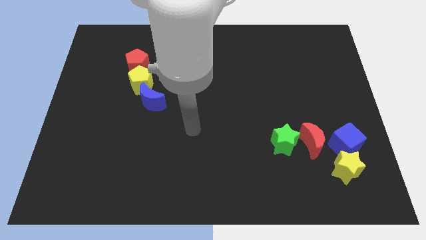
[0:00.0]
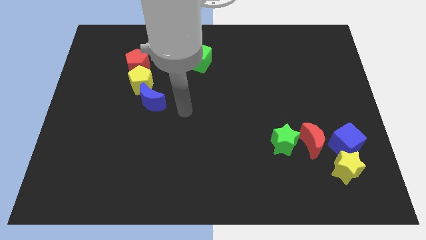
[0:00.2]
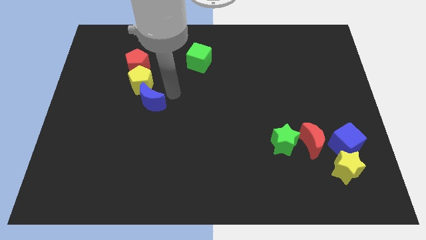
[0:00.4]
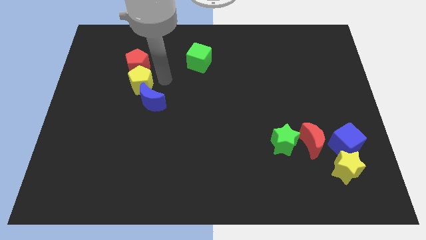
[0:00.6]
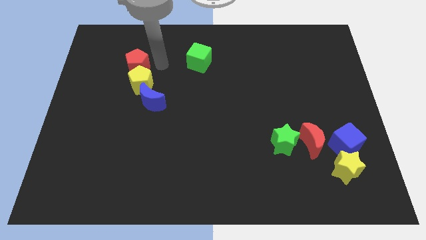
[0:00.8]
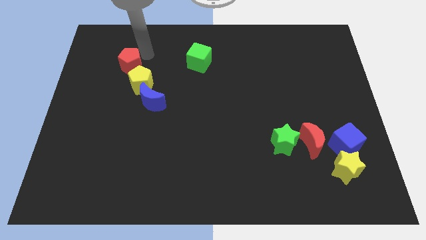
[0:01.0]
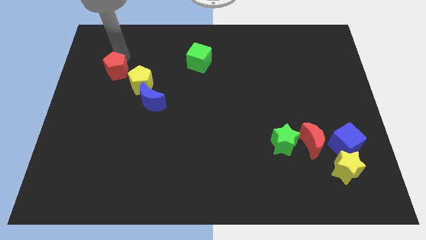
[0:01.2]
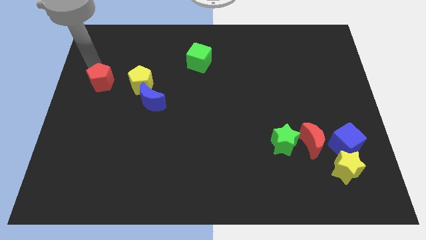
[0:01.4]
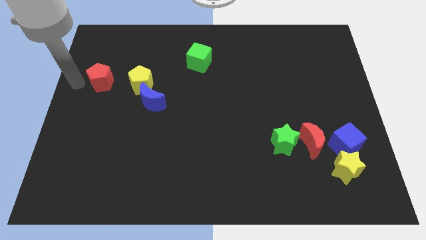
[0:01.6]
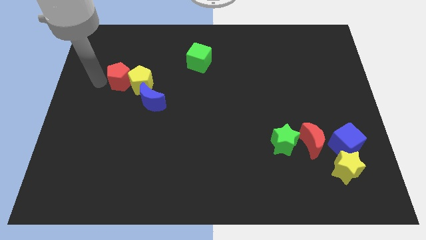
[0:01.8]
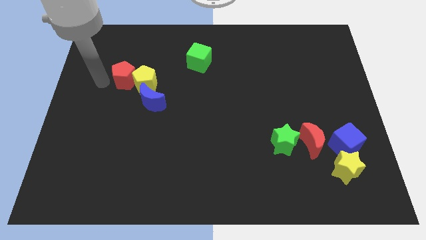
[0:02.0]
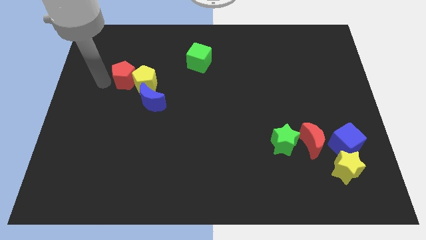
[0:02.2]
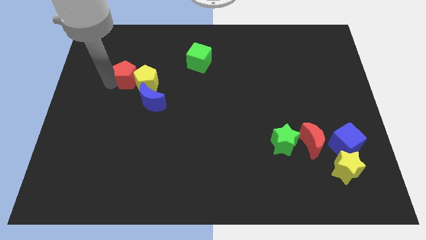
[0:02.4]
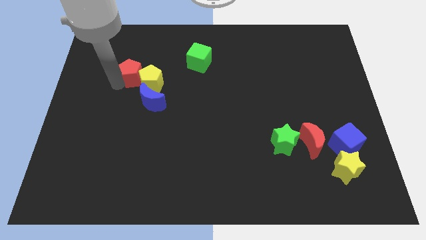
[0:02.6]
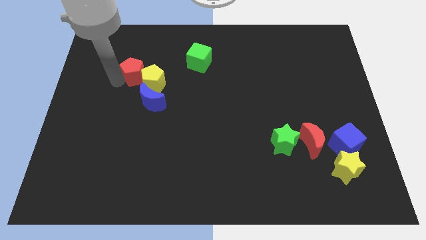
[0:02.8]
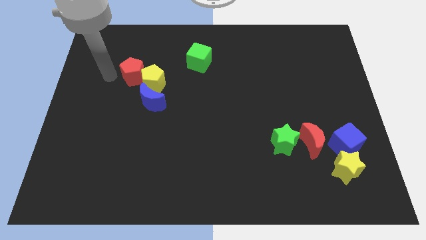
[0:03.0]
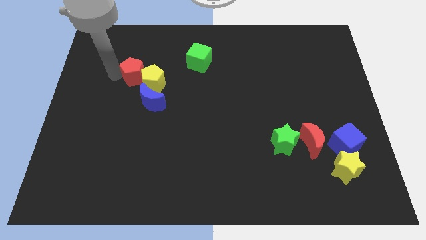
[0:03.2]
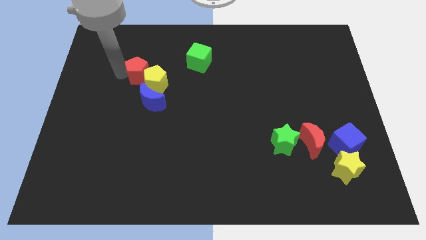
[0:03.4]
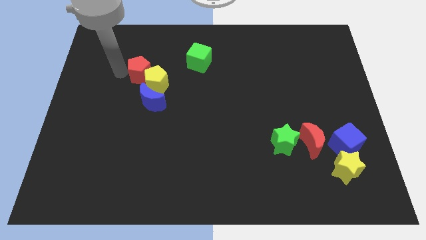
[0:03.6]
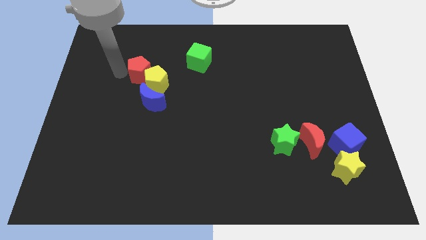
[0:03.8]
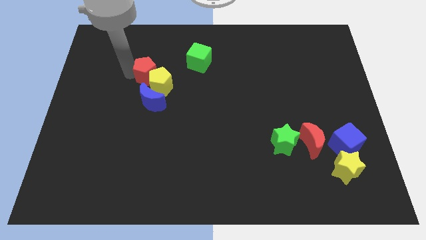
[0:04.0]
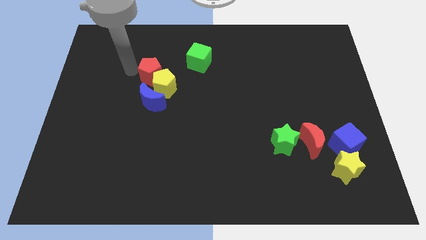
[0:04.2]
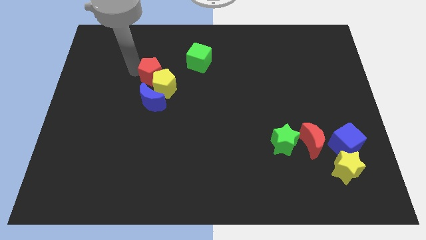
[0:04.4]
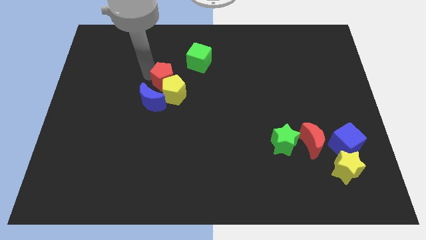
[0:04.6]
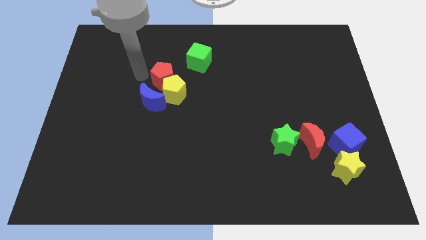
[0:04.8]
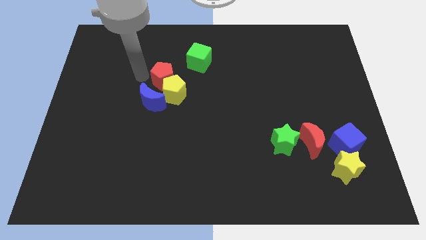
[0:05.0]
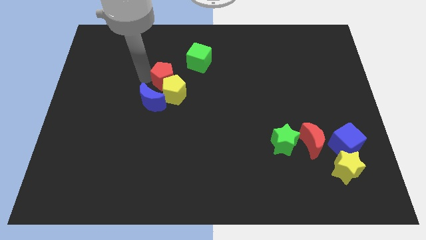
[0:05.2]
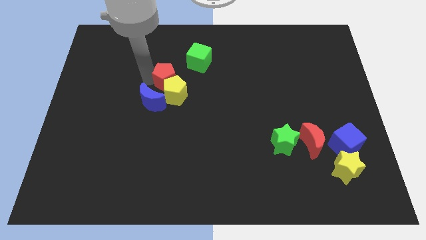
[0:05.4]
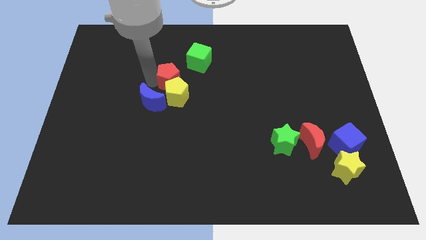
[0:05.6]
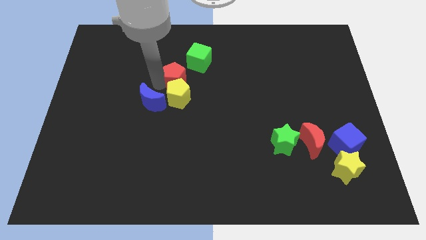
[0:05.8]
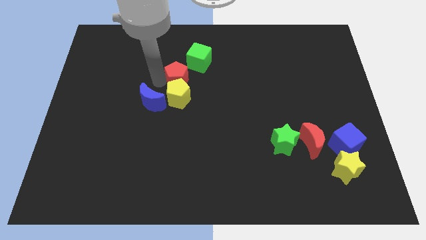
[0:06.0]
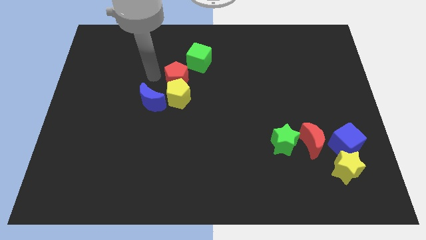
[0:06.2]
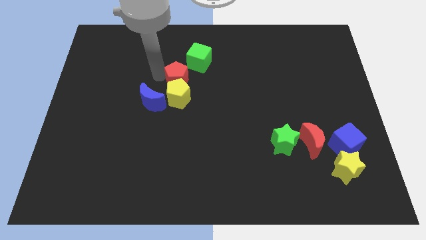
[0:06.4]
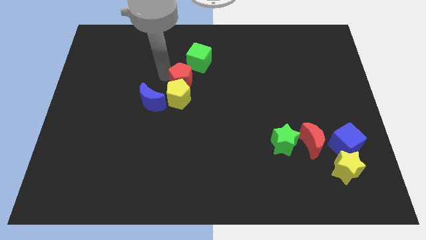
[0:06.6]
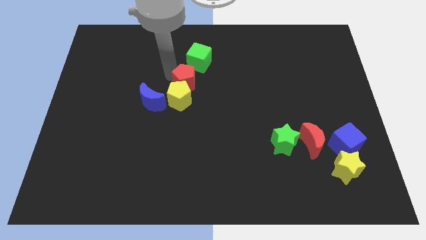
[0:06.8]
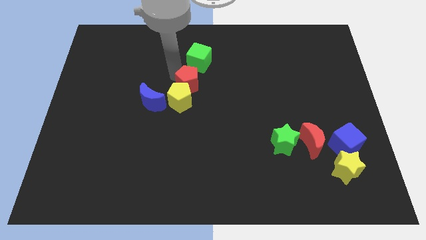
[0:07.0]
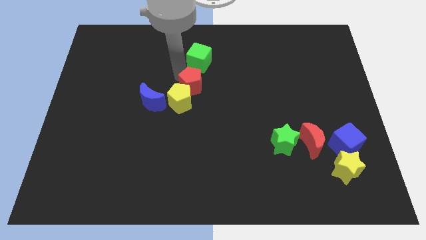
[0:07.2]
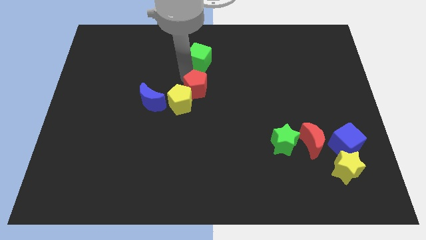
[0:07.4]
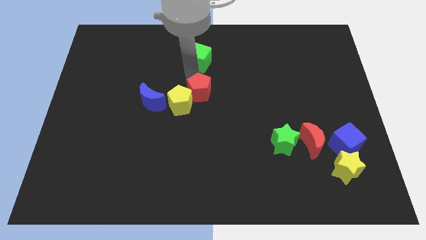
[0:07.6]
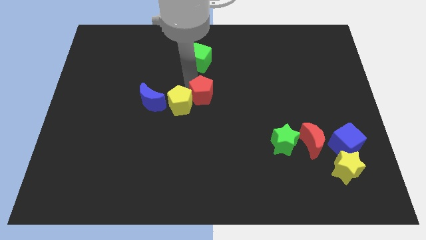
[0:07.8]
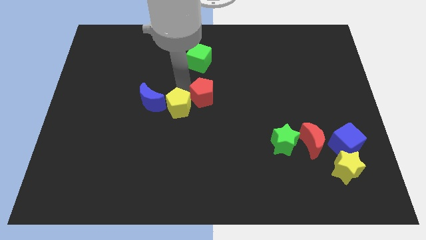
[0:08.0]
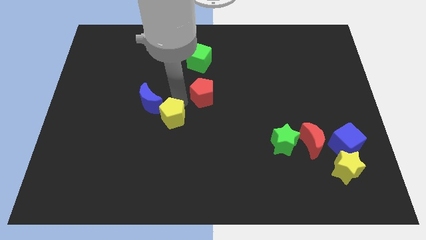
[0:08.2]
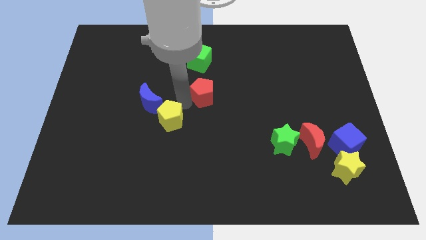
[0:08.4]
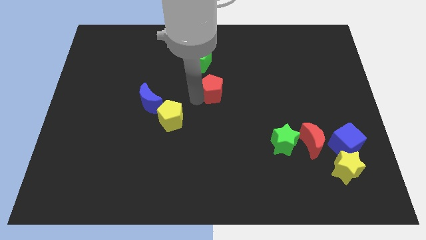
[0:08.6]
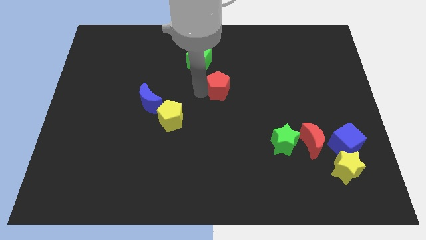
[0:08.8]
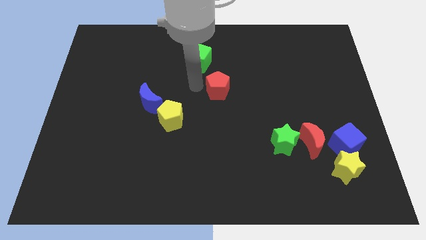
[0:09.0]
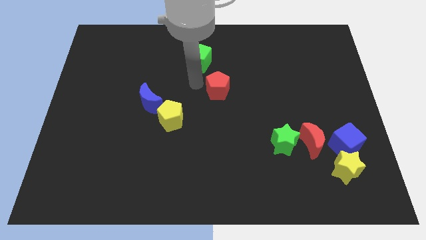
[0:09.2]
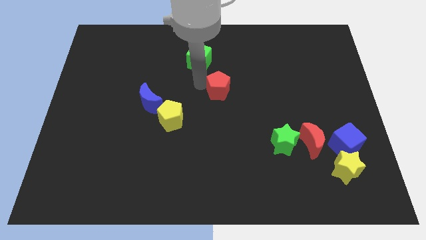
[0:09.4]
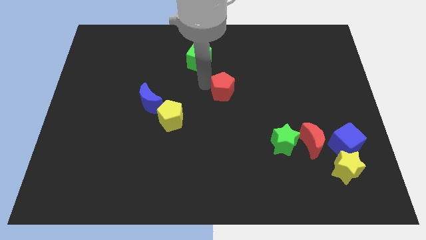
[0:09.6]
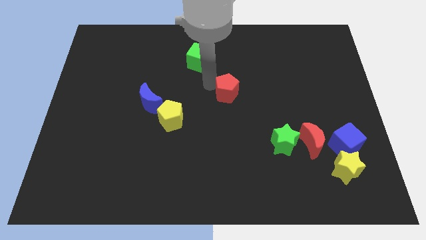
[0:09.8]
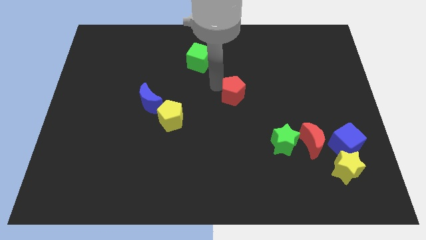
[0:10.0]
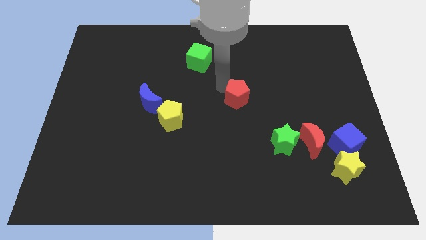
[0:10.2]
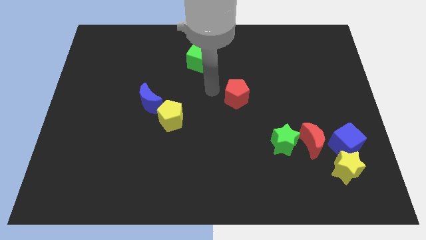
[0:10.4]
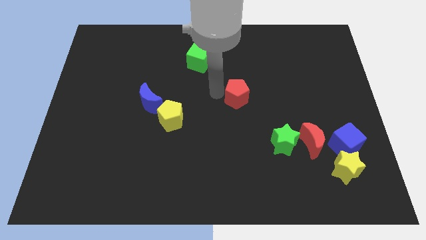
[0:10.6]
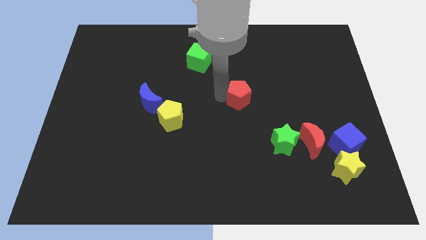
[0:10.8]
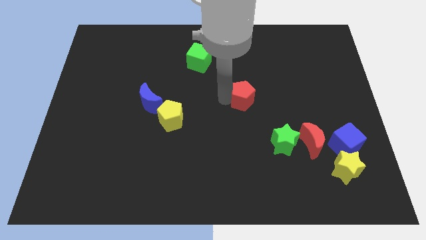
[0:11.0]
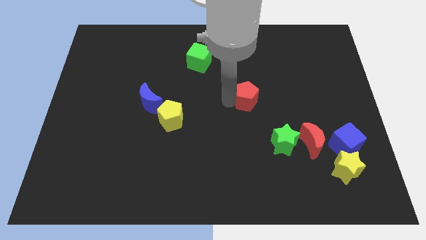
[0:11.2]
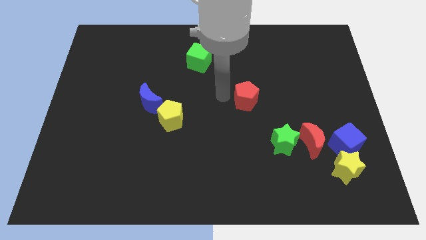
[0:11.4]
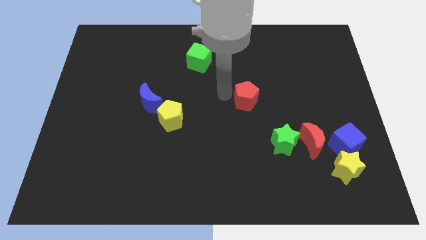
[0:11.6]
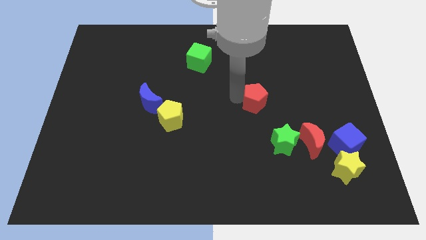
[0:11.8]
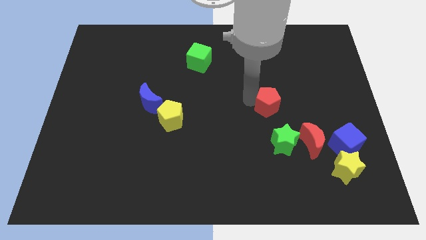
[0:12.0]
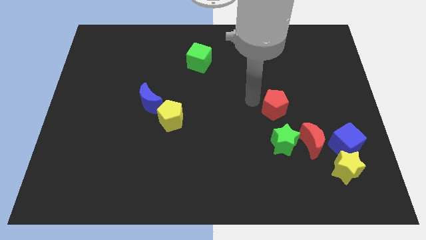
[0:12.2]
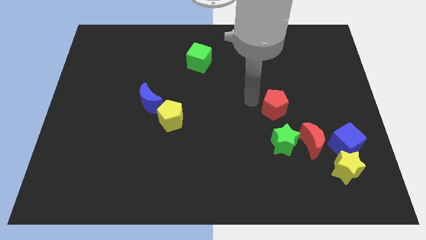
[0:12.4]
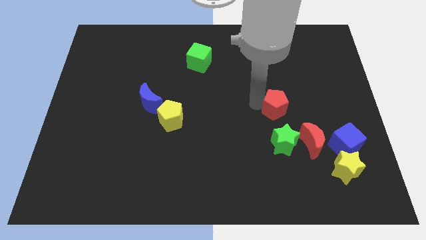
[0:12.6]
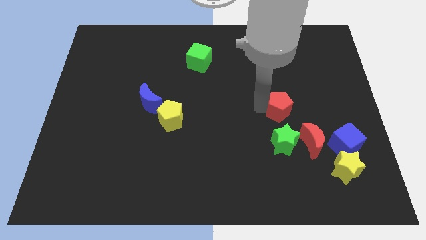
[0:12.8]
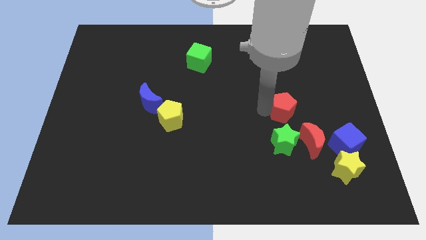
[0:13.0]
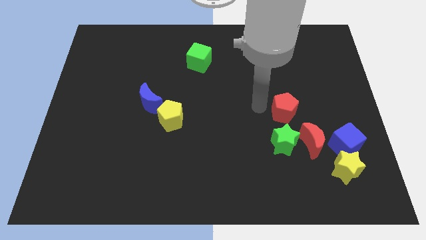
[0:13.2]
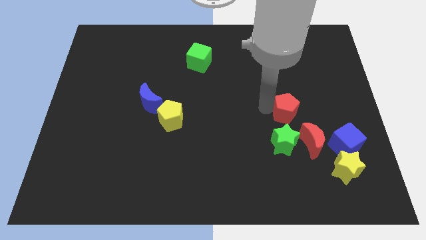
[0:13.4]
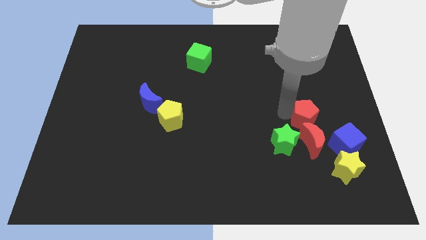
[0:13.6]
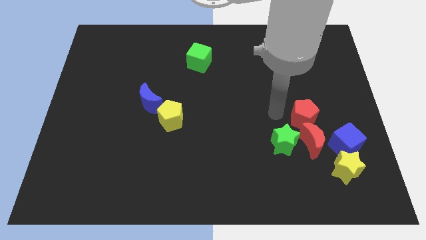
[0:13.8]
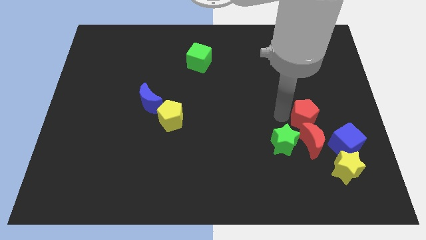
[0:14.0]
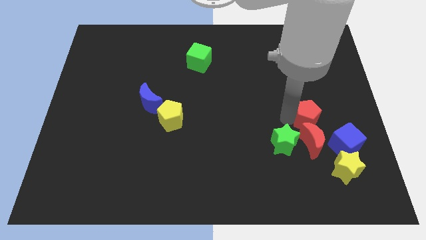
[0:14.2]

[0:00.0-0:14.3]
slide the red pentagon to the top right of the red moon
